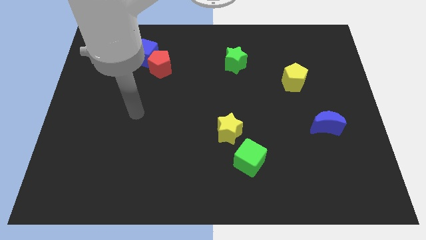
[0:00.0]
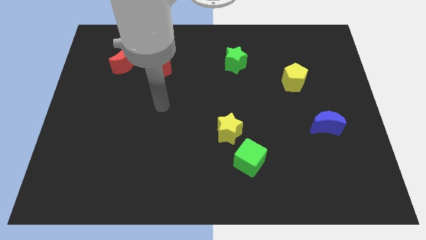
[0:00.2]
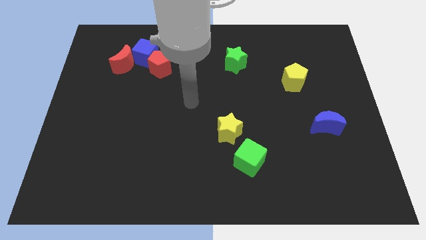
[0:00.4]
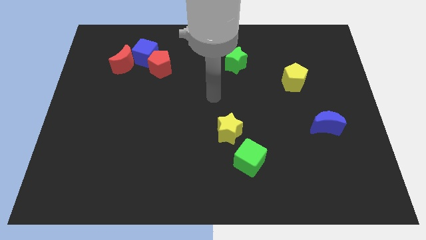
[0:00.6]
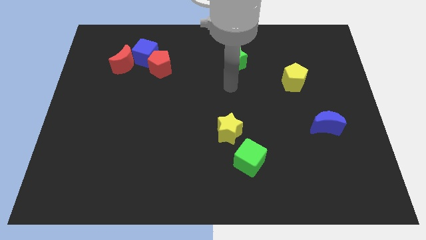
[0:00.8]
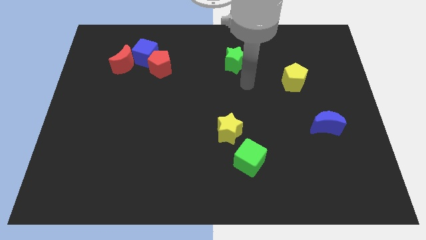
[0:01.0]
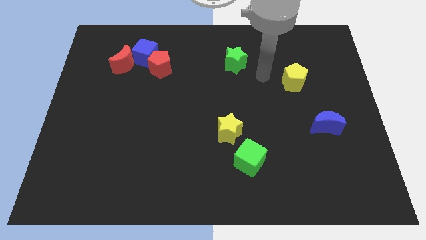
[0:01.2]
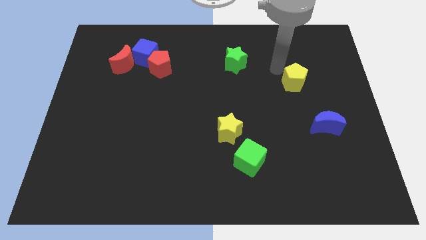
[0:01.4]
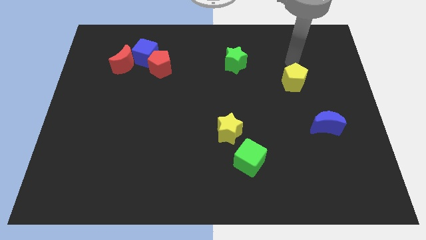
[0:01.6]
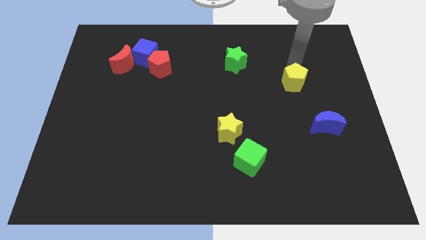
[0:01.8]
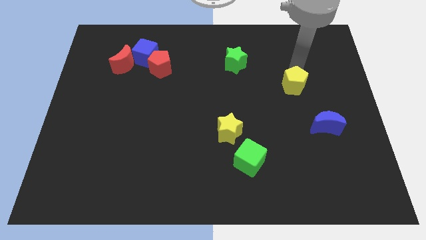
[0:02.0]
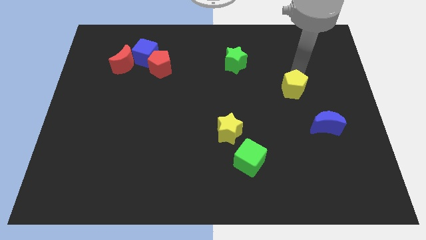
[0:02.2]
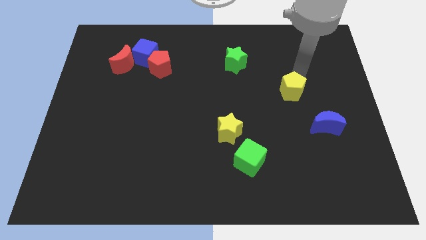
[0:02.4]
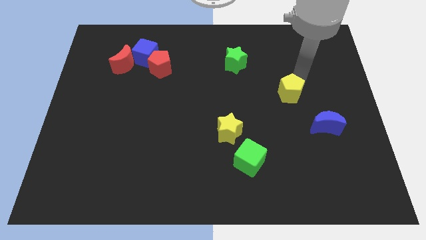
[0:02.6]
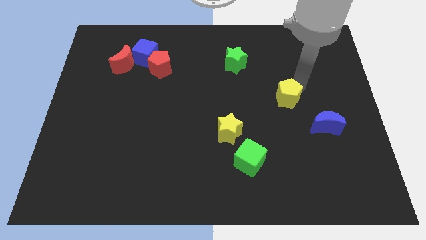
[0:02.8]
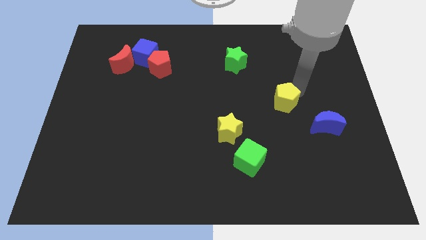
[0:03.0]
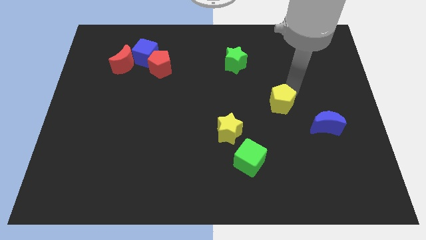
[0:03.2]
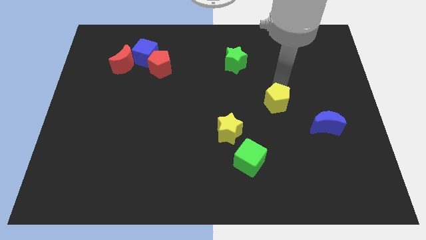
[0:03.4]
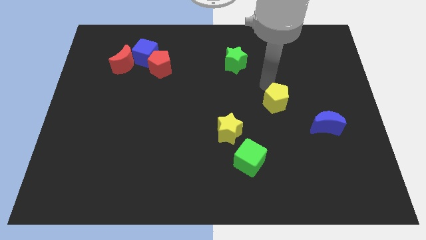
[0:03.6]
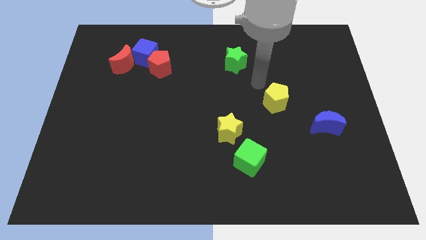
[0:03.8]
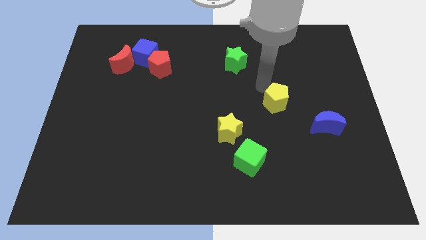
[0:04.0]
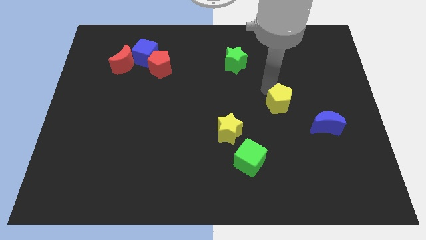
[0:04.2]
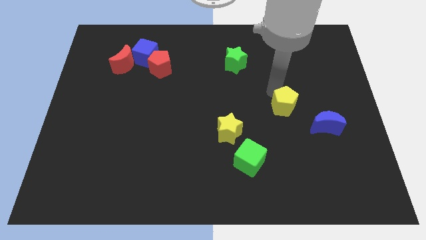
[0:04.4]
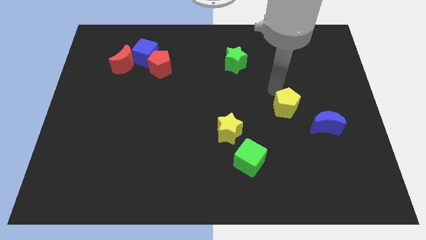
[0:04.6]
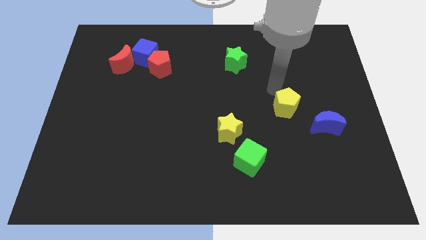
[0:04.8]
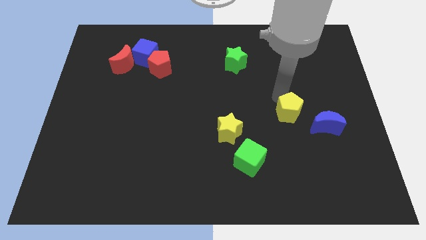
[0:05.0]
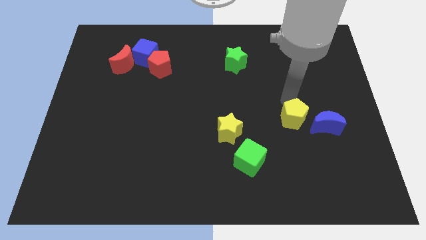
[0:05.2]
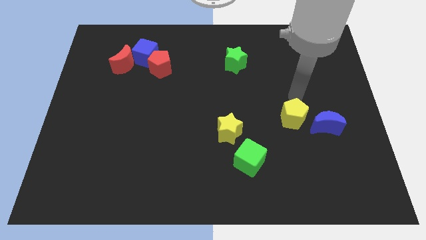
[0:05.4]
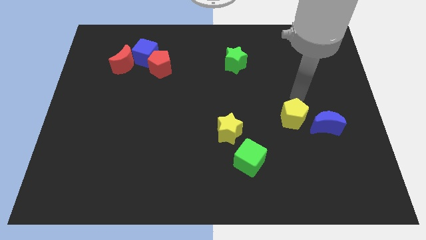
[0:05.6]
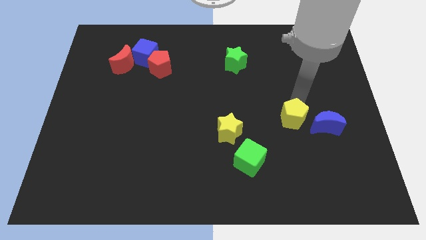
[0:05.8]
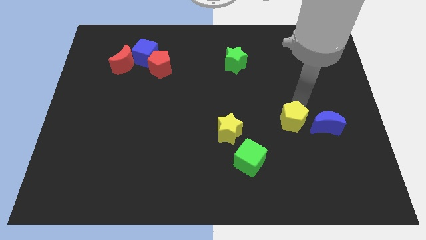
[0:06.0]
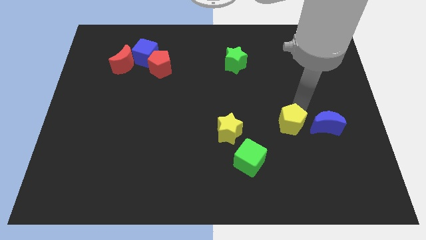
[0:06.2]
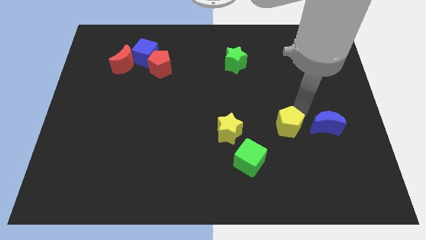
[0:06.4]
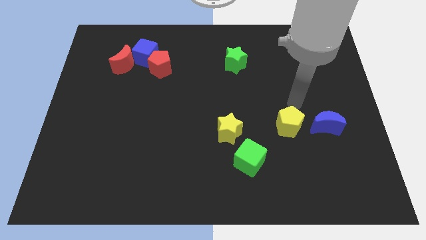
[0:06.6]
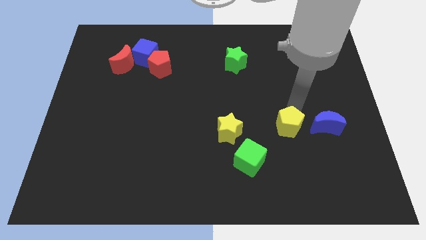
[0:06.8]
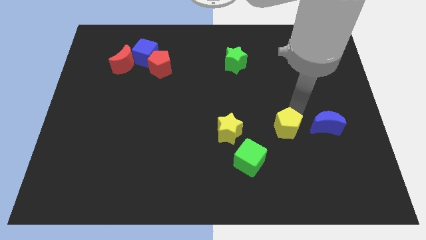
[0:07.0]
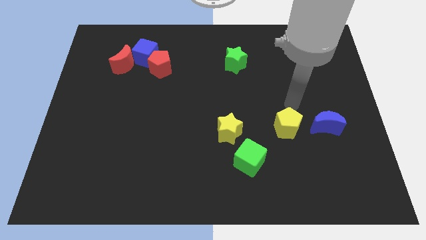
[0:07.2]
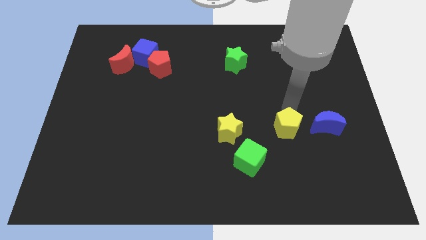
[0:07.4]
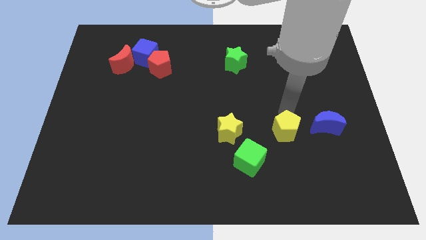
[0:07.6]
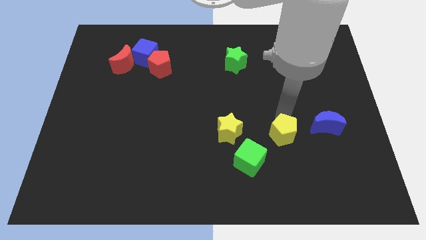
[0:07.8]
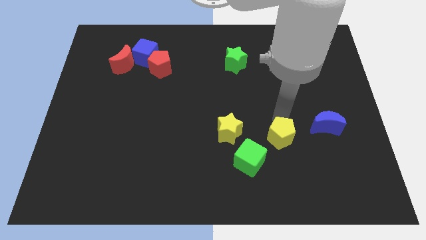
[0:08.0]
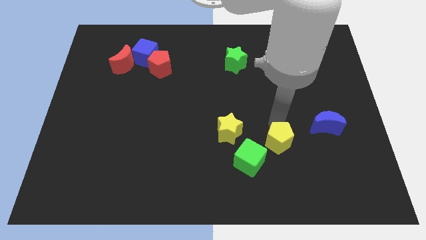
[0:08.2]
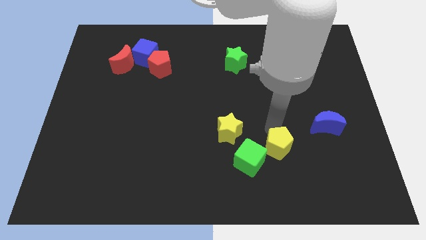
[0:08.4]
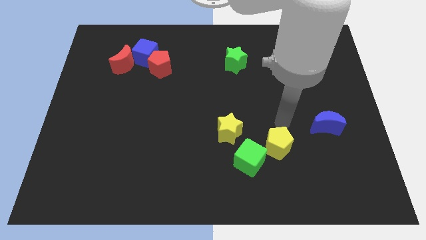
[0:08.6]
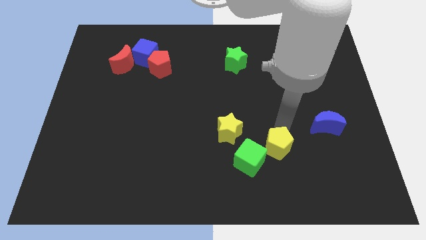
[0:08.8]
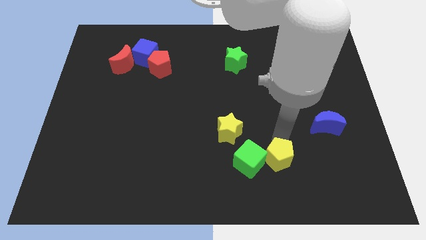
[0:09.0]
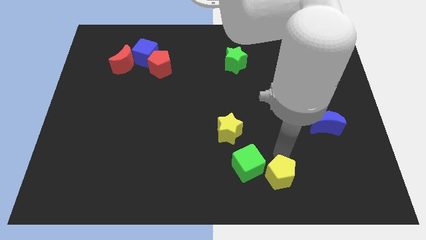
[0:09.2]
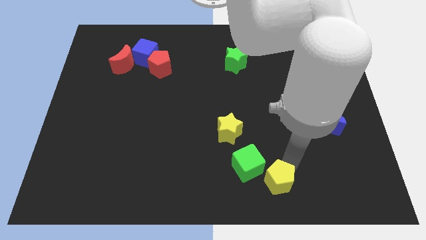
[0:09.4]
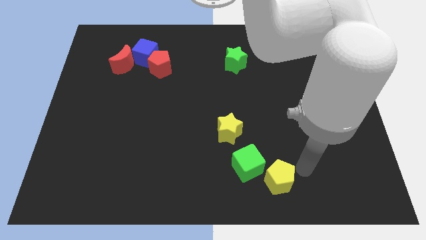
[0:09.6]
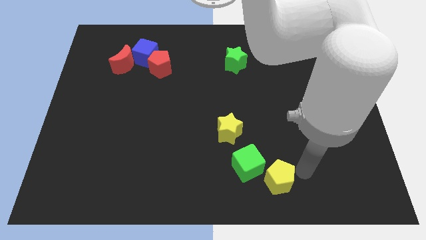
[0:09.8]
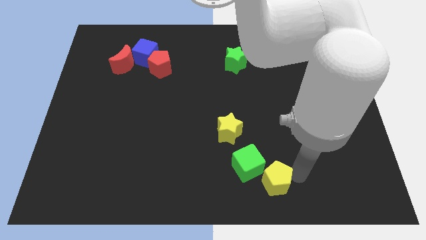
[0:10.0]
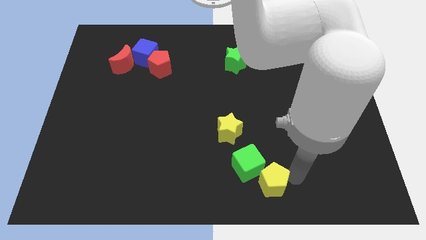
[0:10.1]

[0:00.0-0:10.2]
slide the yellow pentagon to the bottom side

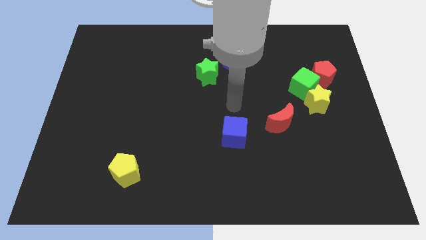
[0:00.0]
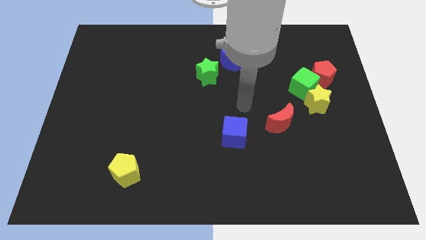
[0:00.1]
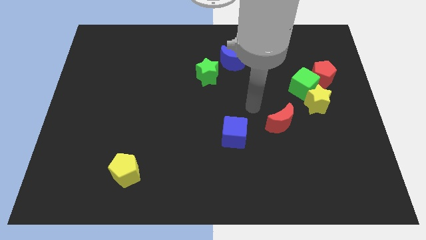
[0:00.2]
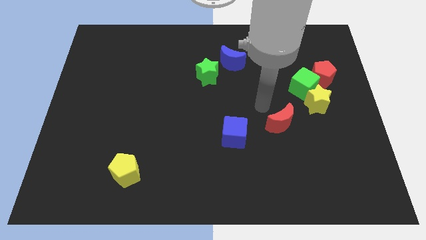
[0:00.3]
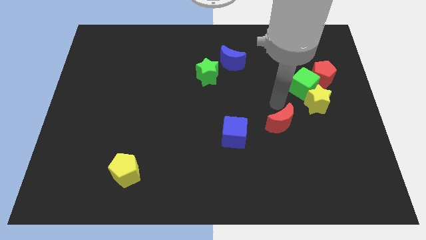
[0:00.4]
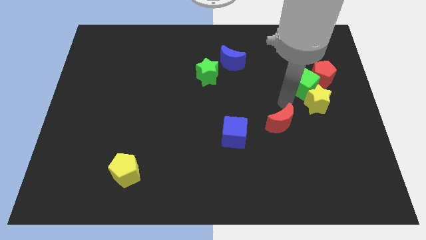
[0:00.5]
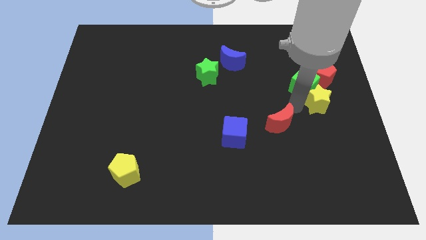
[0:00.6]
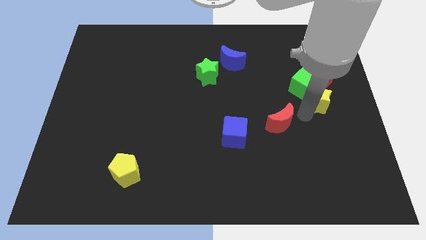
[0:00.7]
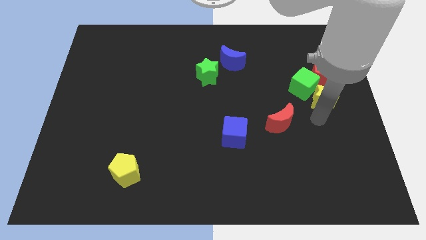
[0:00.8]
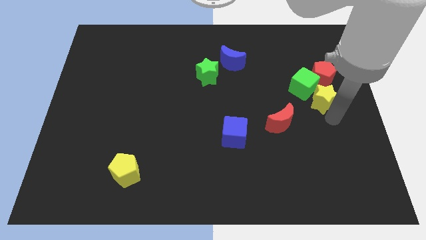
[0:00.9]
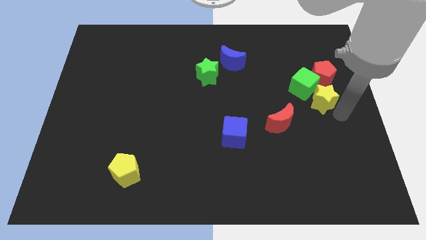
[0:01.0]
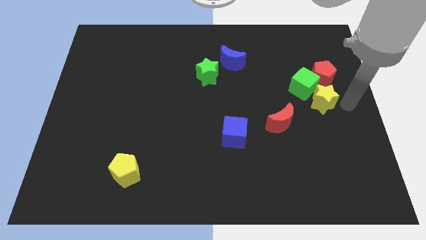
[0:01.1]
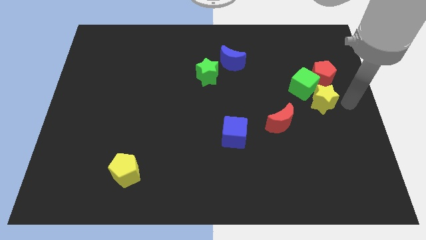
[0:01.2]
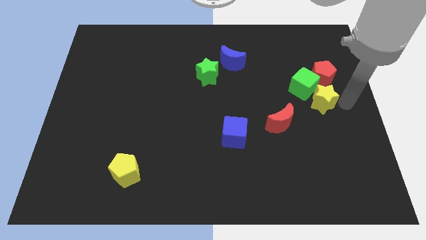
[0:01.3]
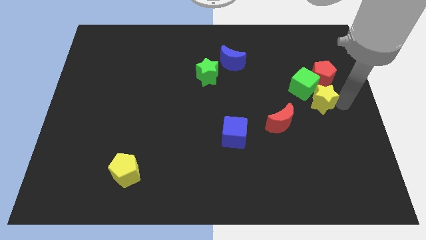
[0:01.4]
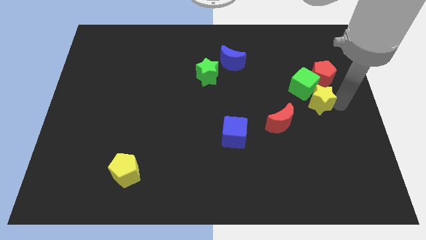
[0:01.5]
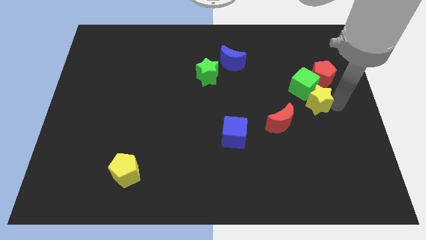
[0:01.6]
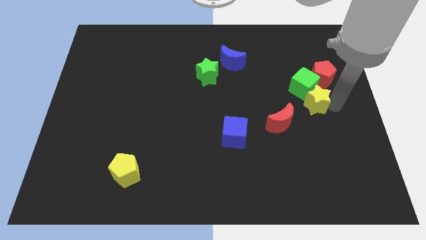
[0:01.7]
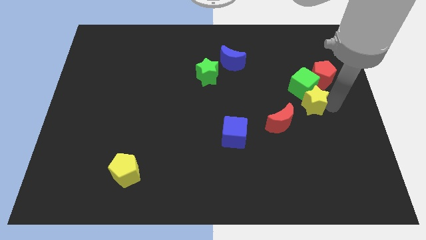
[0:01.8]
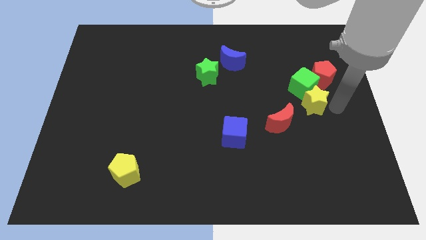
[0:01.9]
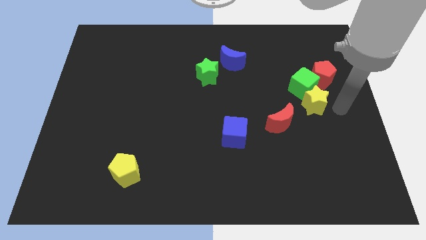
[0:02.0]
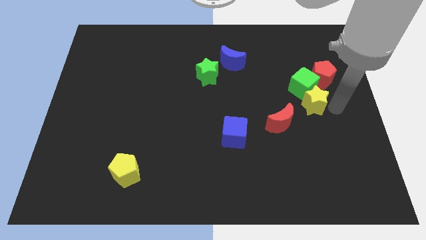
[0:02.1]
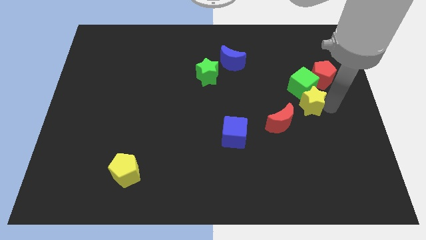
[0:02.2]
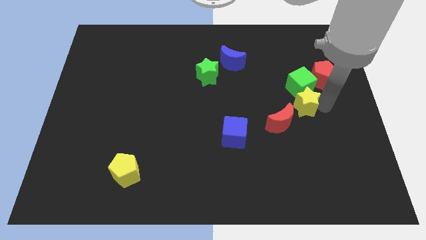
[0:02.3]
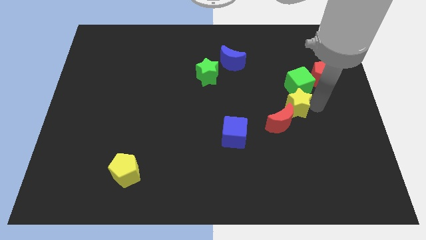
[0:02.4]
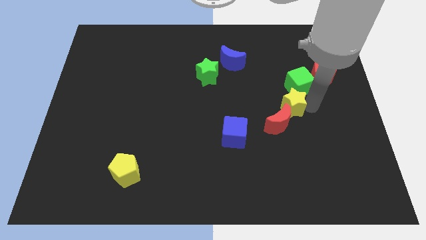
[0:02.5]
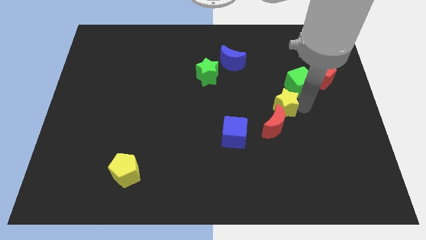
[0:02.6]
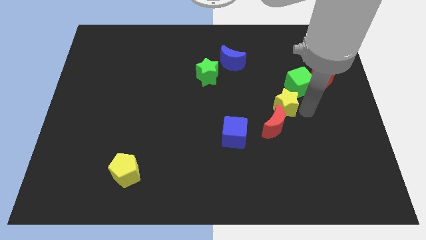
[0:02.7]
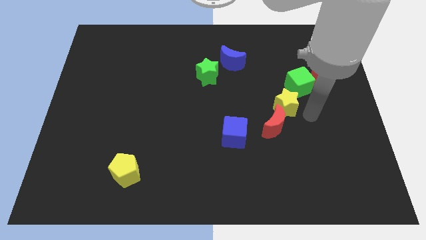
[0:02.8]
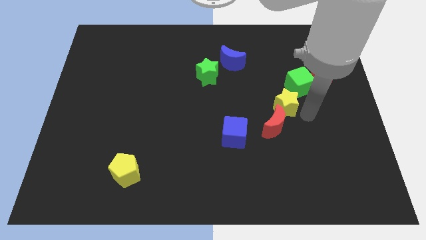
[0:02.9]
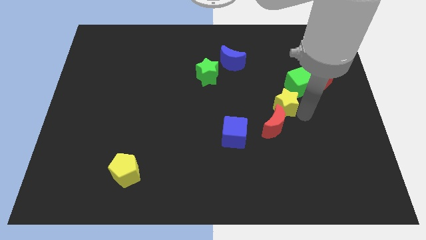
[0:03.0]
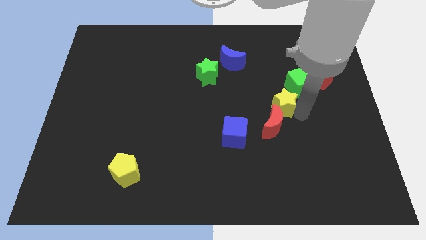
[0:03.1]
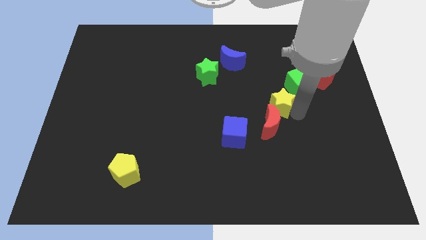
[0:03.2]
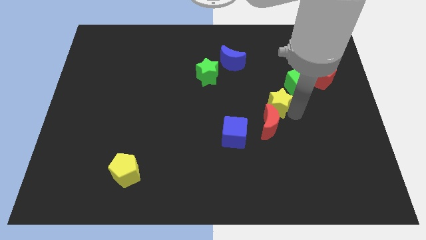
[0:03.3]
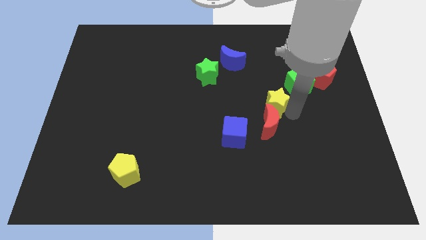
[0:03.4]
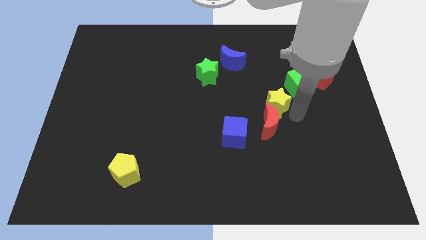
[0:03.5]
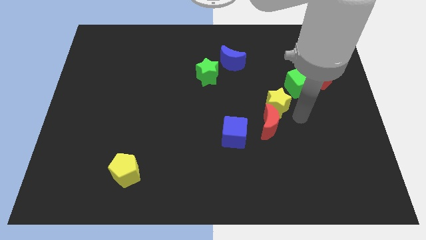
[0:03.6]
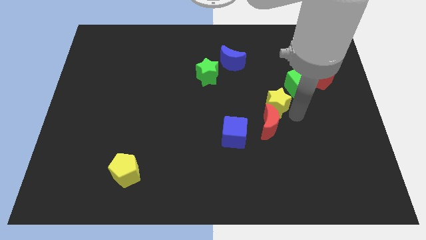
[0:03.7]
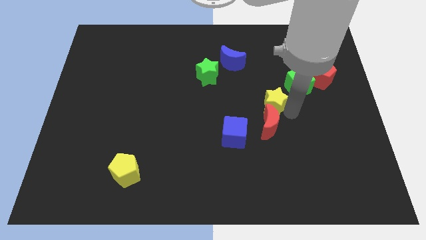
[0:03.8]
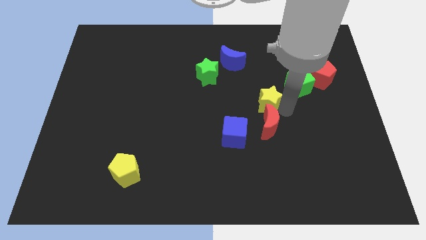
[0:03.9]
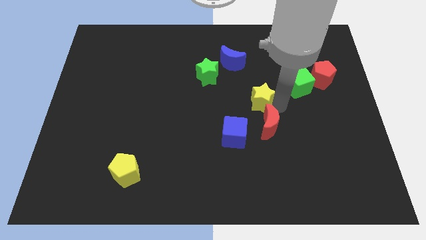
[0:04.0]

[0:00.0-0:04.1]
slide the yellow star to the middle of the board
